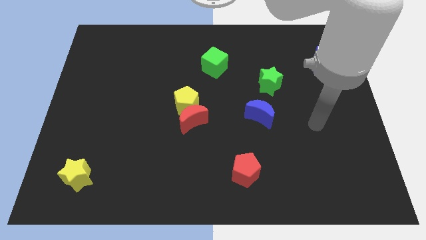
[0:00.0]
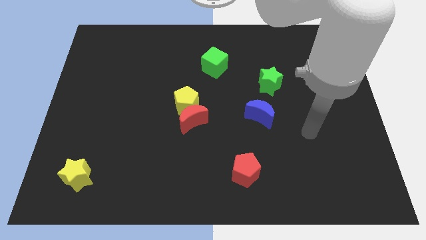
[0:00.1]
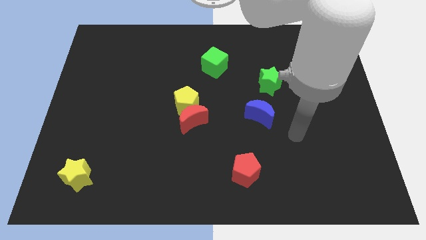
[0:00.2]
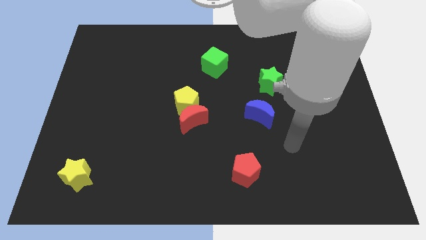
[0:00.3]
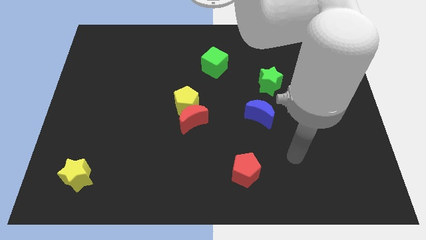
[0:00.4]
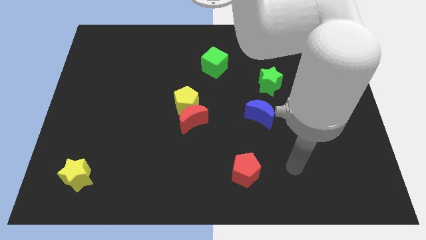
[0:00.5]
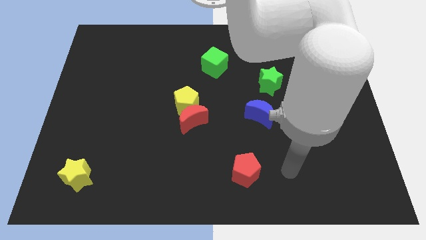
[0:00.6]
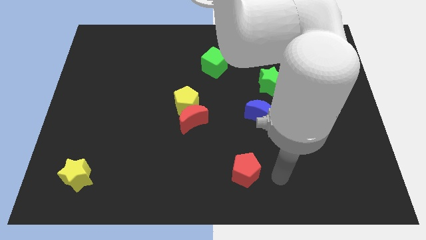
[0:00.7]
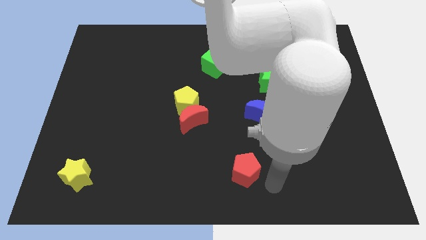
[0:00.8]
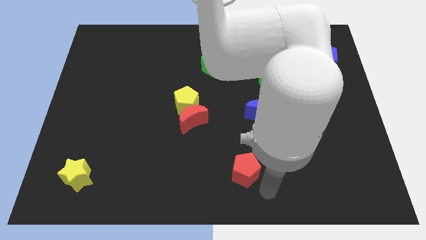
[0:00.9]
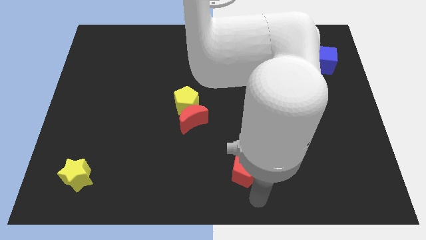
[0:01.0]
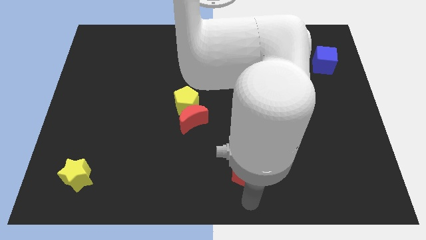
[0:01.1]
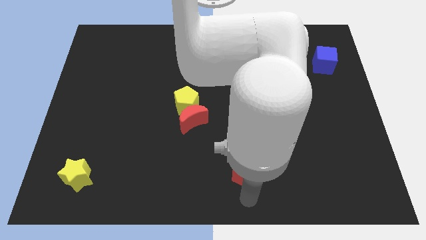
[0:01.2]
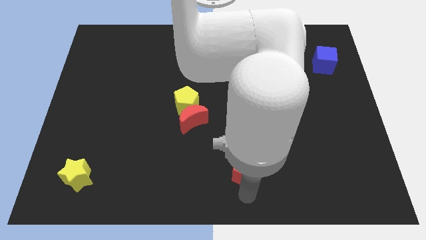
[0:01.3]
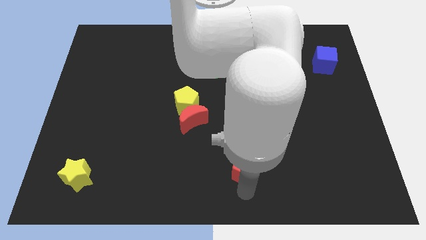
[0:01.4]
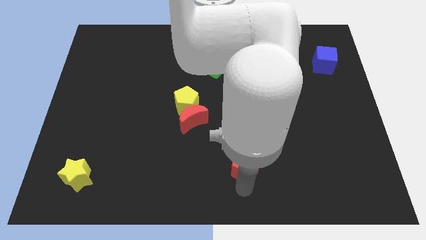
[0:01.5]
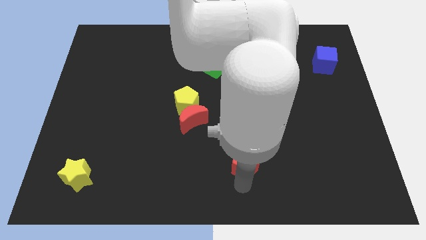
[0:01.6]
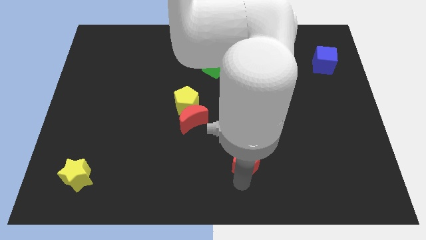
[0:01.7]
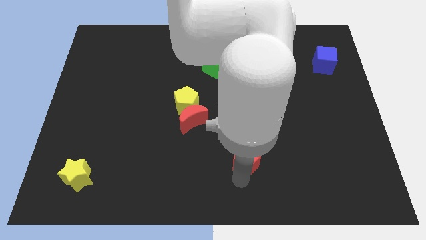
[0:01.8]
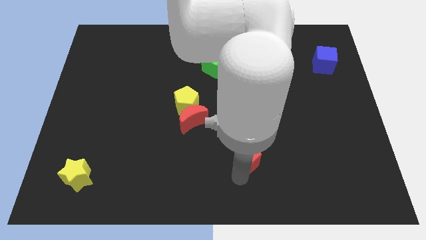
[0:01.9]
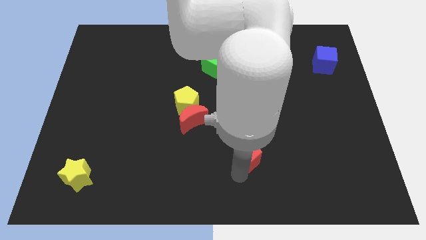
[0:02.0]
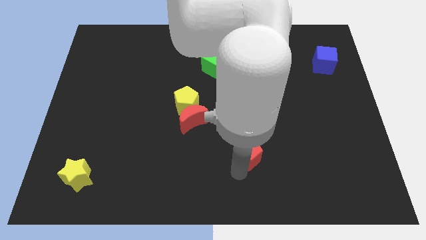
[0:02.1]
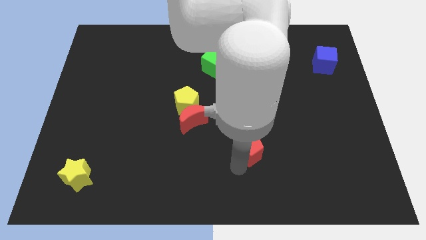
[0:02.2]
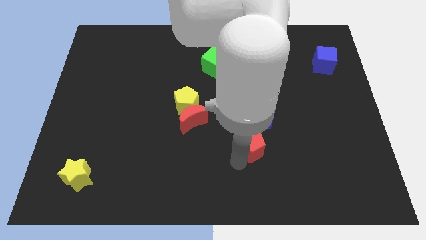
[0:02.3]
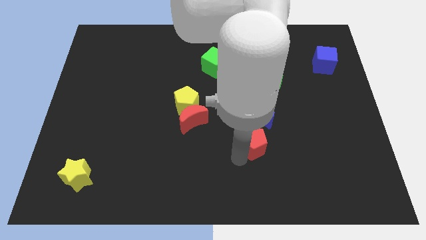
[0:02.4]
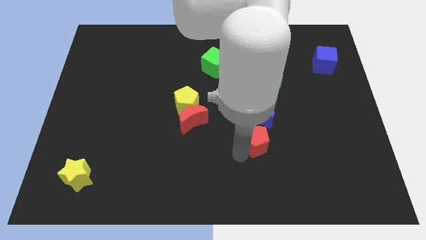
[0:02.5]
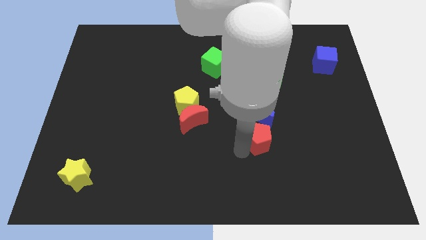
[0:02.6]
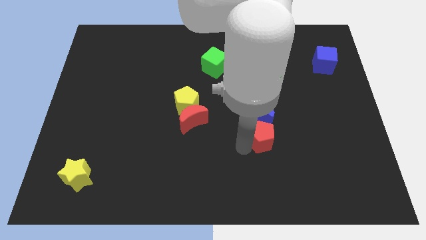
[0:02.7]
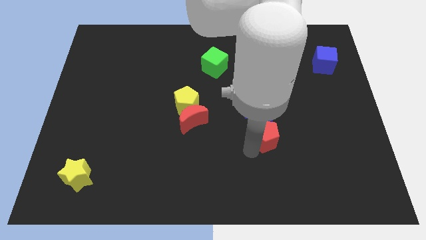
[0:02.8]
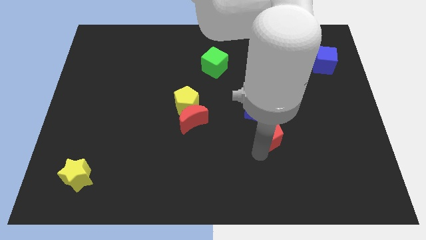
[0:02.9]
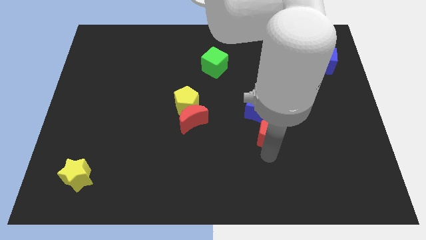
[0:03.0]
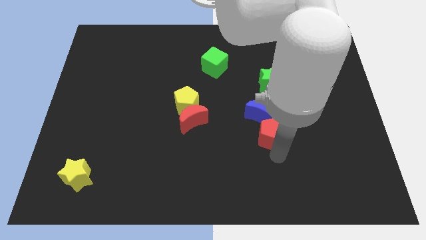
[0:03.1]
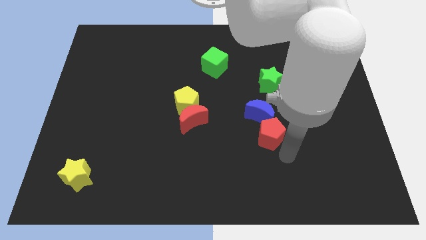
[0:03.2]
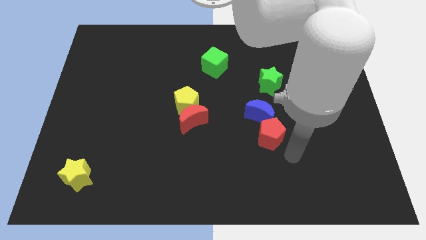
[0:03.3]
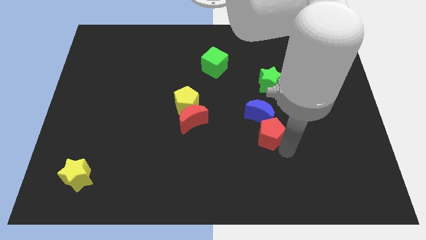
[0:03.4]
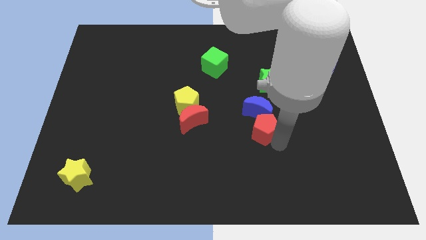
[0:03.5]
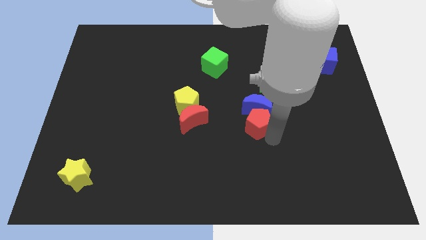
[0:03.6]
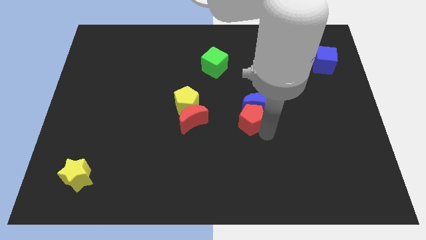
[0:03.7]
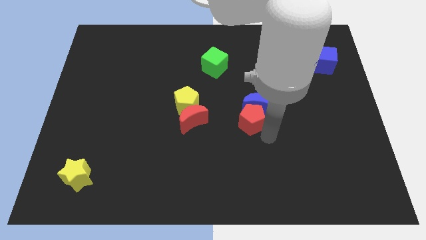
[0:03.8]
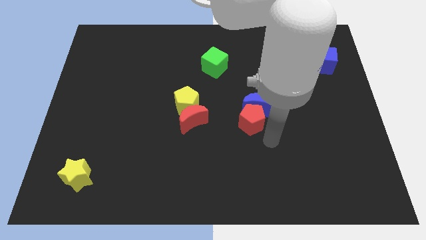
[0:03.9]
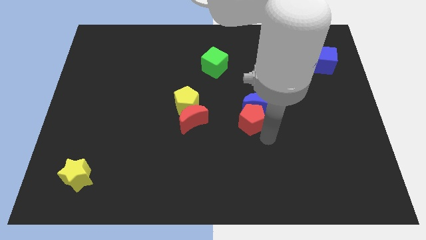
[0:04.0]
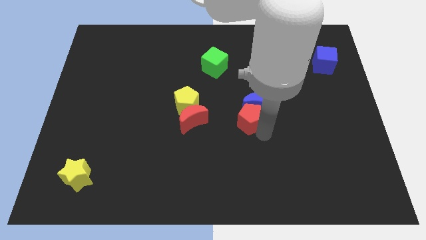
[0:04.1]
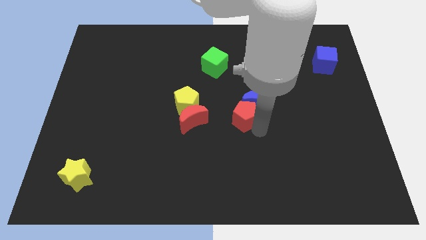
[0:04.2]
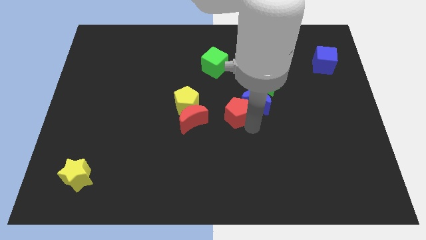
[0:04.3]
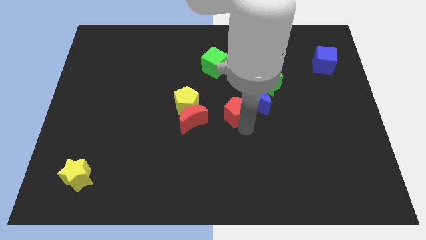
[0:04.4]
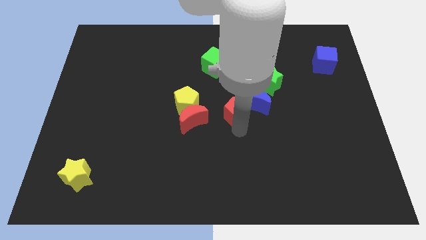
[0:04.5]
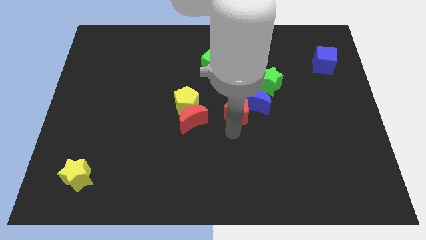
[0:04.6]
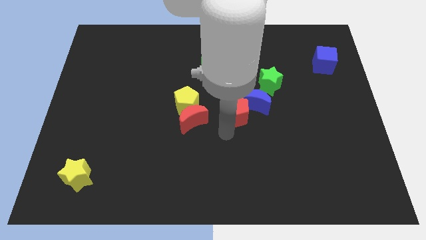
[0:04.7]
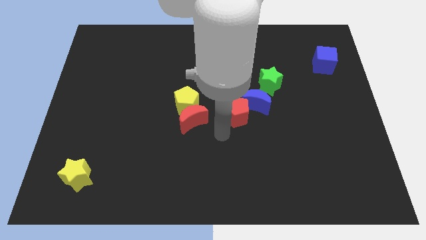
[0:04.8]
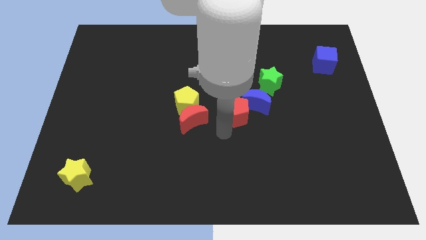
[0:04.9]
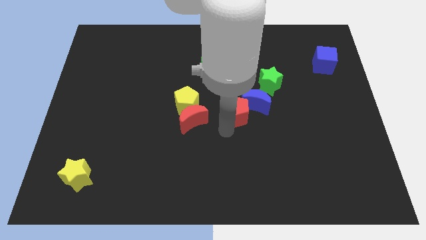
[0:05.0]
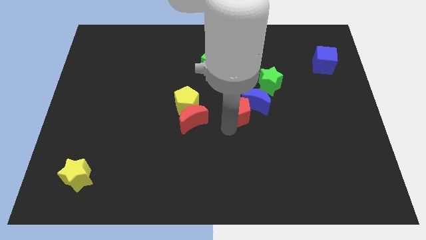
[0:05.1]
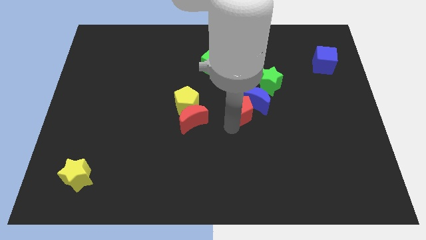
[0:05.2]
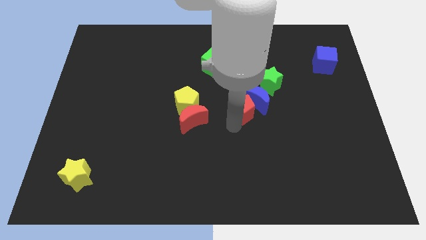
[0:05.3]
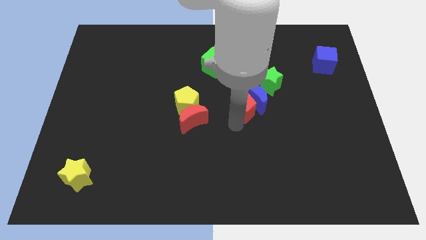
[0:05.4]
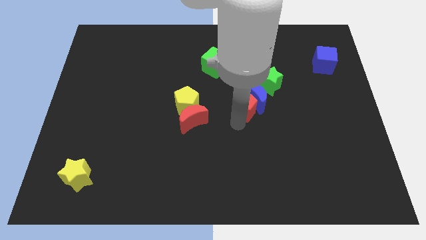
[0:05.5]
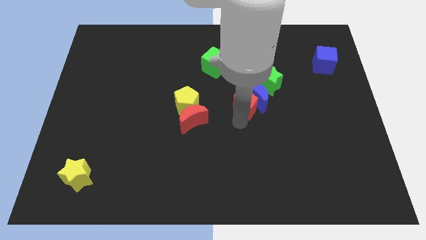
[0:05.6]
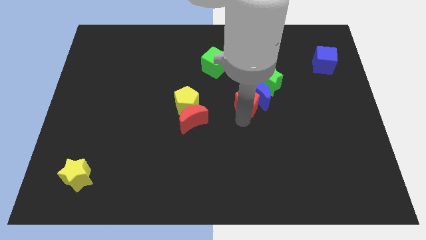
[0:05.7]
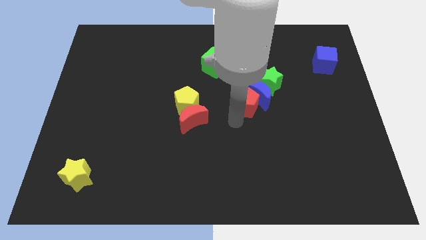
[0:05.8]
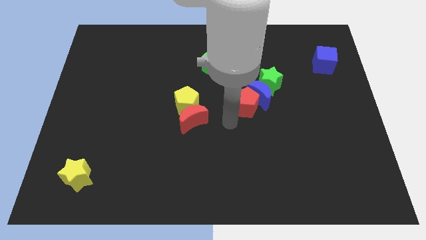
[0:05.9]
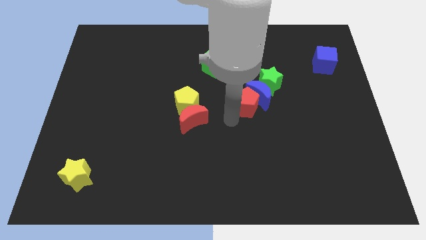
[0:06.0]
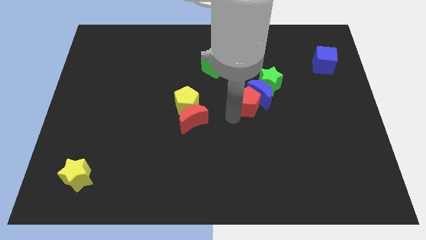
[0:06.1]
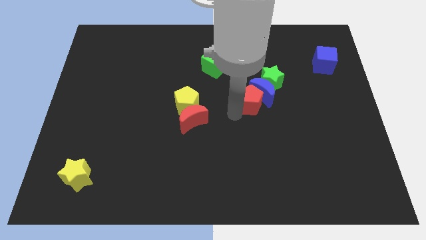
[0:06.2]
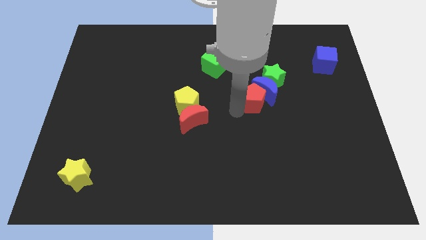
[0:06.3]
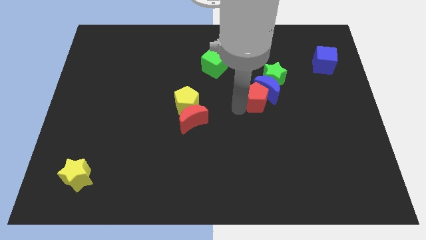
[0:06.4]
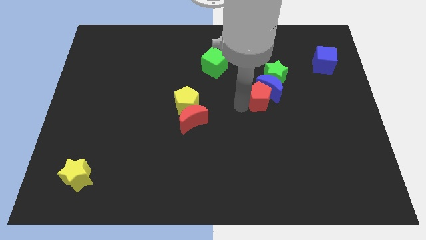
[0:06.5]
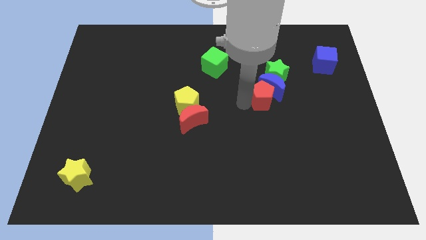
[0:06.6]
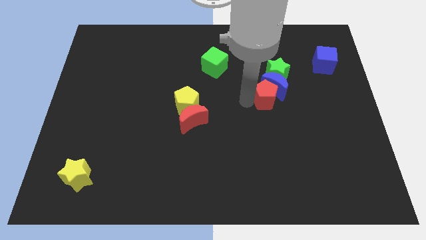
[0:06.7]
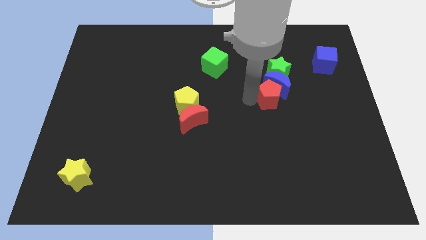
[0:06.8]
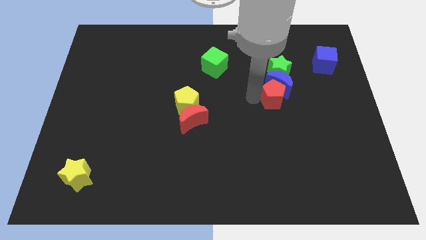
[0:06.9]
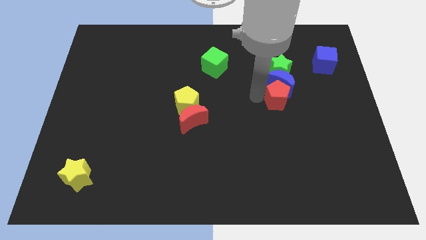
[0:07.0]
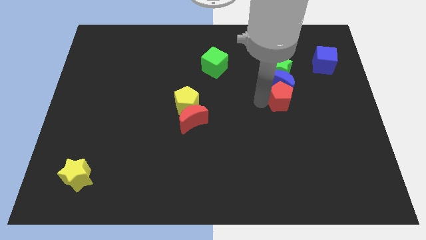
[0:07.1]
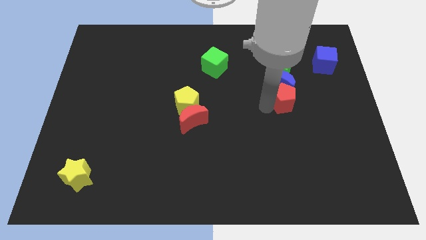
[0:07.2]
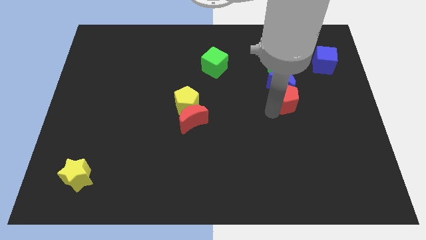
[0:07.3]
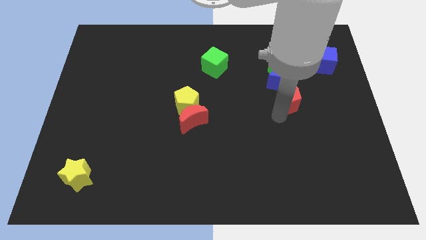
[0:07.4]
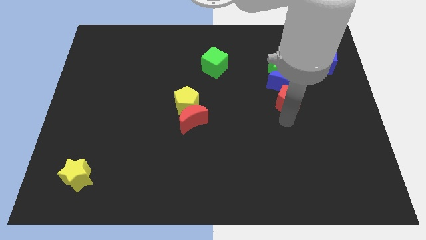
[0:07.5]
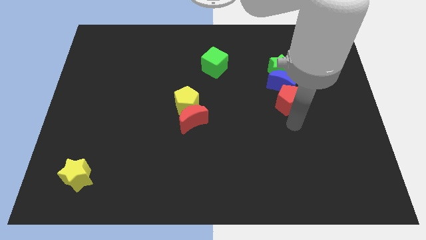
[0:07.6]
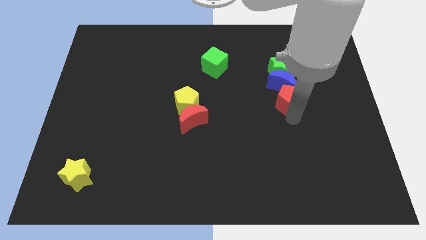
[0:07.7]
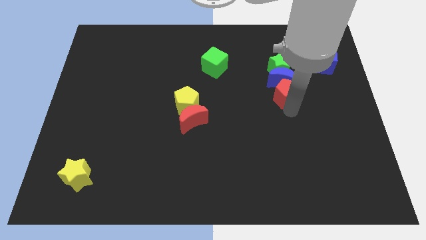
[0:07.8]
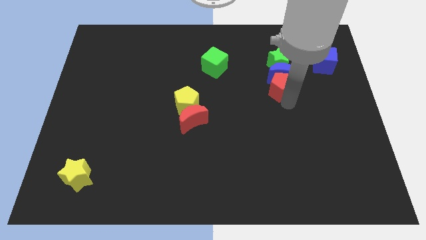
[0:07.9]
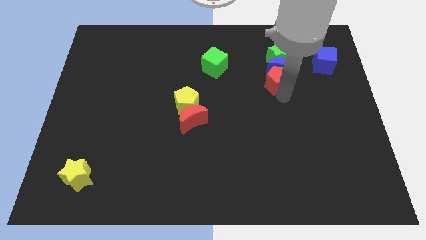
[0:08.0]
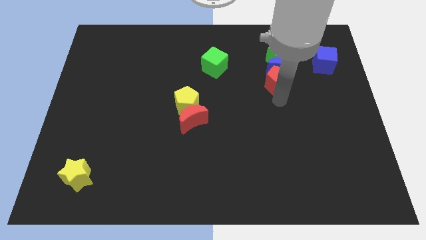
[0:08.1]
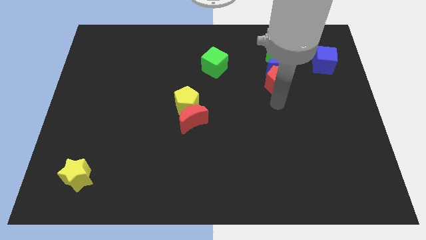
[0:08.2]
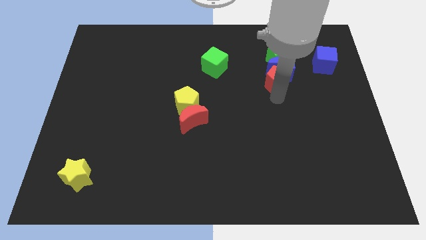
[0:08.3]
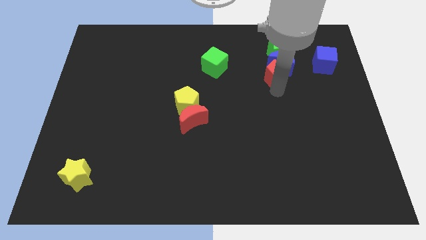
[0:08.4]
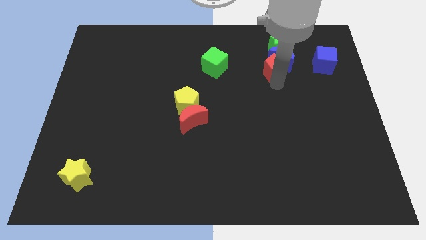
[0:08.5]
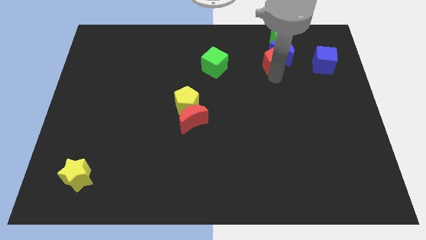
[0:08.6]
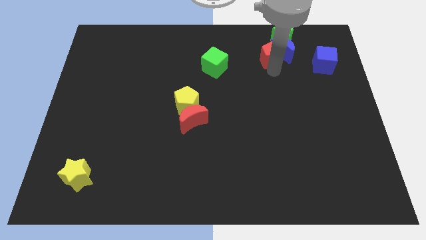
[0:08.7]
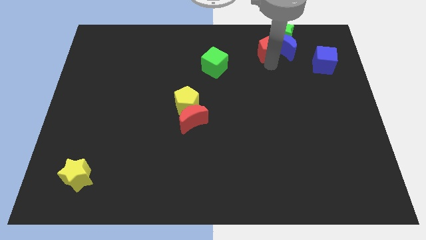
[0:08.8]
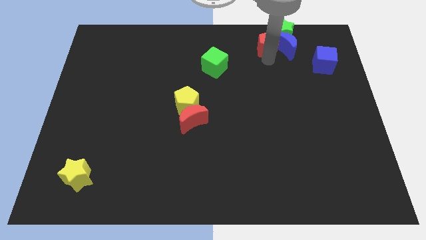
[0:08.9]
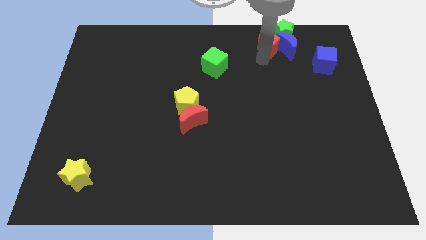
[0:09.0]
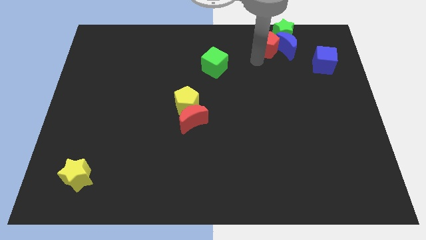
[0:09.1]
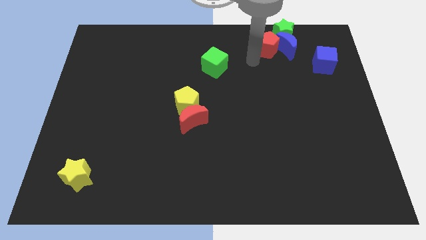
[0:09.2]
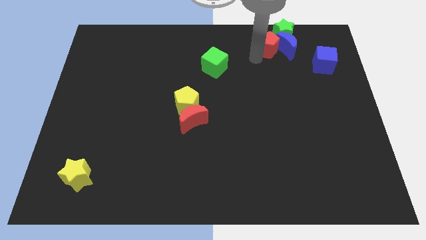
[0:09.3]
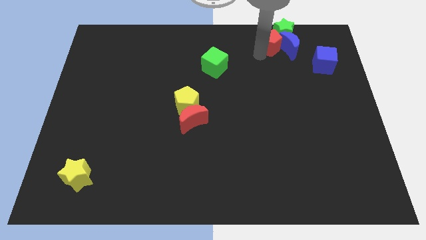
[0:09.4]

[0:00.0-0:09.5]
move the red pentagon next to the green star
